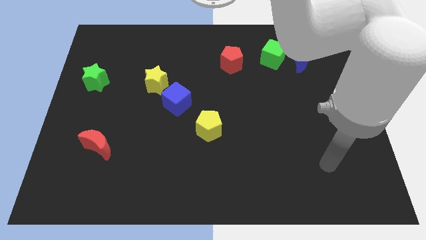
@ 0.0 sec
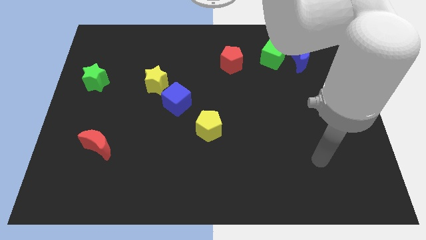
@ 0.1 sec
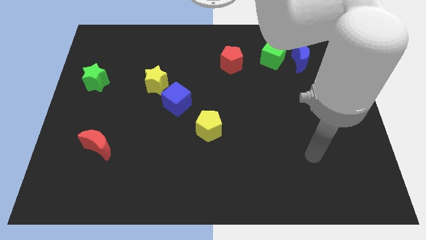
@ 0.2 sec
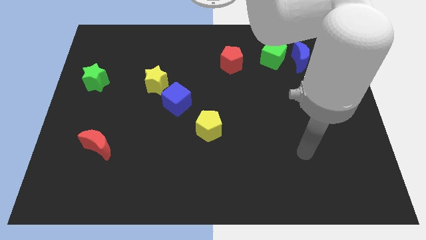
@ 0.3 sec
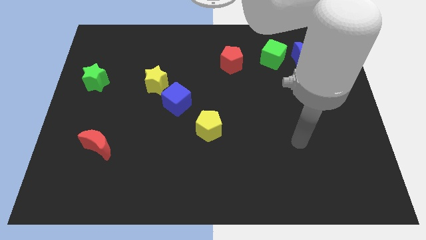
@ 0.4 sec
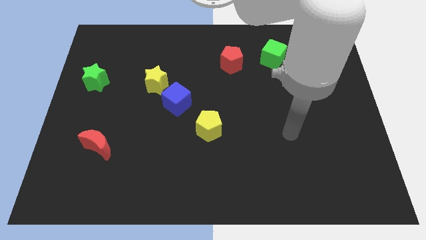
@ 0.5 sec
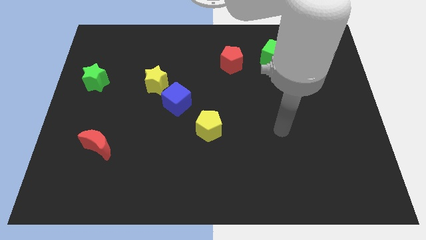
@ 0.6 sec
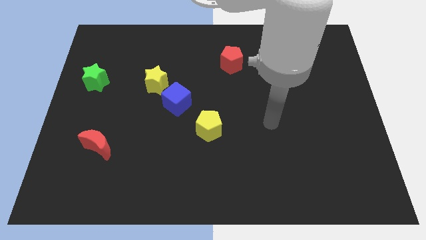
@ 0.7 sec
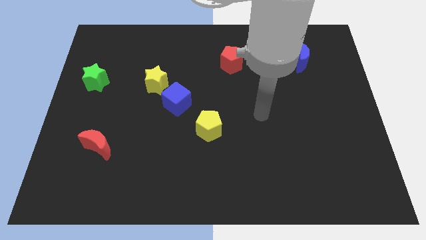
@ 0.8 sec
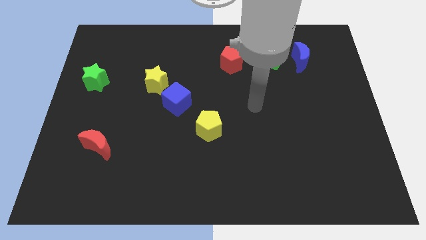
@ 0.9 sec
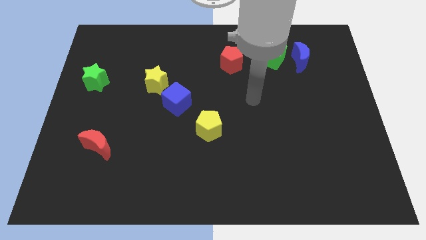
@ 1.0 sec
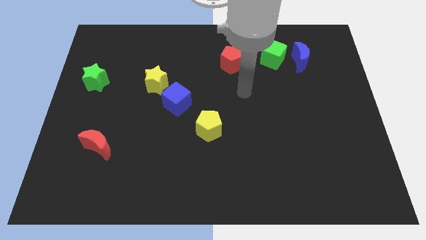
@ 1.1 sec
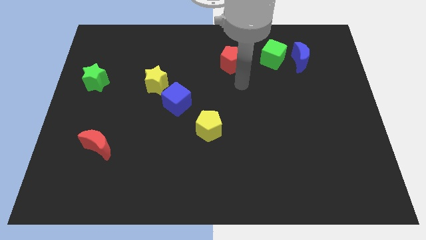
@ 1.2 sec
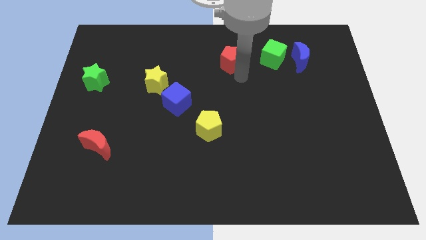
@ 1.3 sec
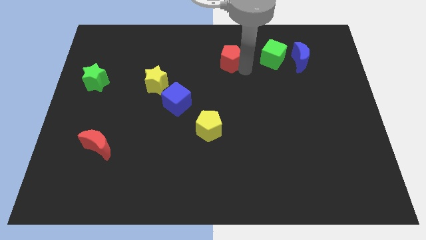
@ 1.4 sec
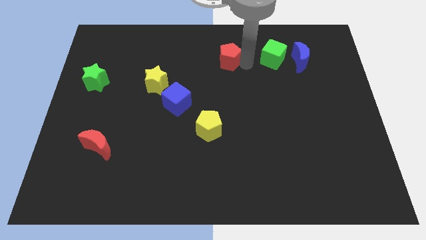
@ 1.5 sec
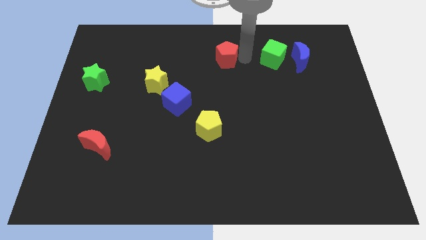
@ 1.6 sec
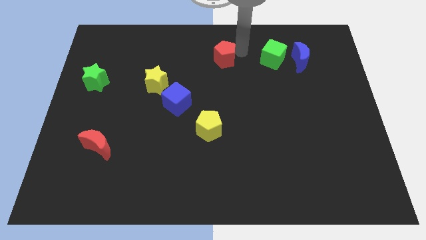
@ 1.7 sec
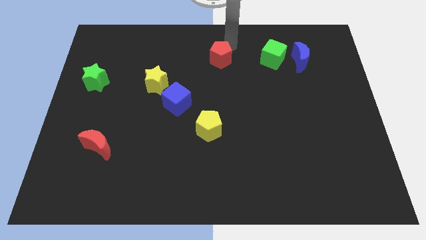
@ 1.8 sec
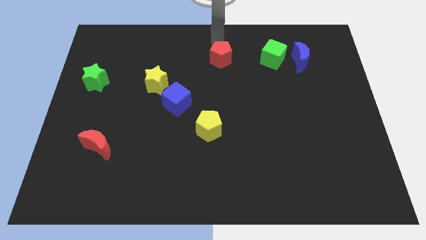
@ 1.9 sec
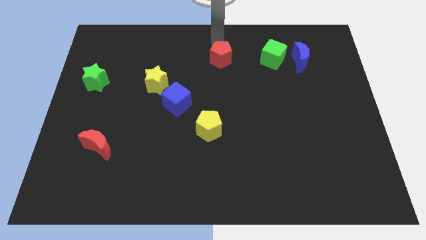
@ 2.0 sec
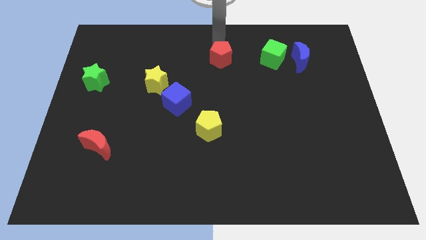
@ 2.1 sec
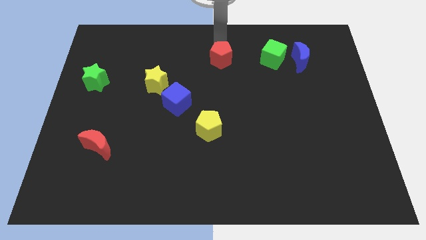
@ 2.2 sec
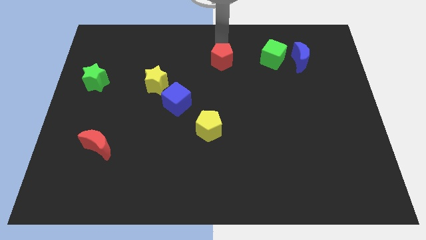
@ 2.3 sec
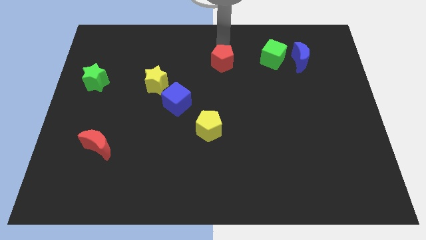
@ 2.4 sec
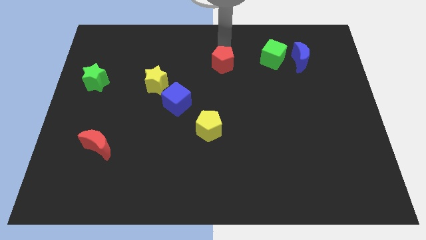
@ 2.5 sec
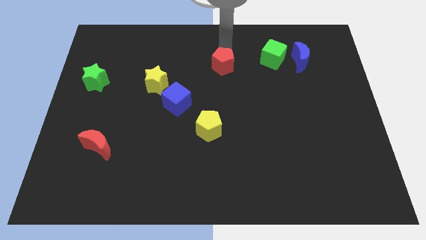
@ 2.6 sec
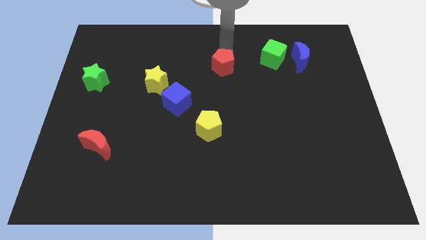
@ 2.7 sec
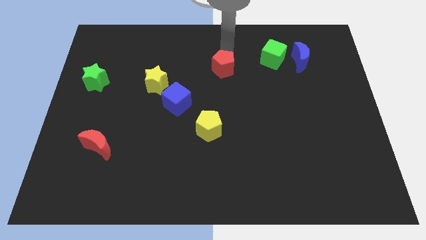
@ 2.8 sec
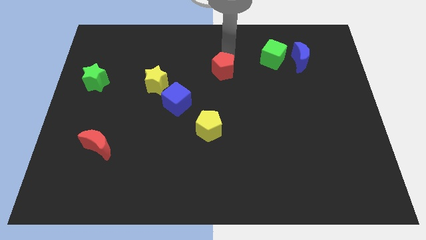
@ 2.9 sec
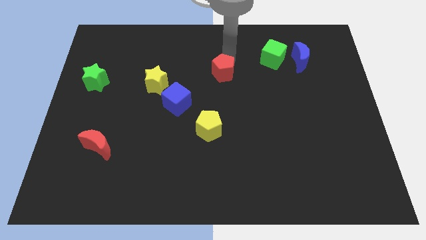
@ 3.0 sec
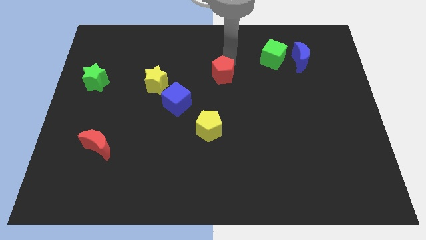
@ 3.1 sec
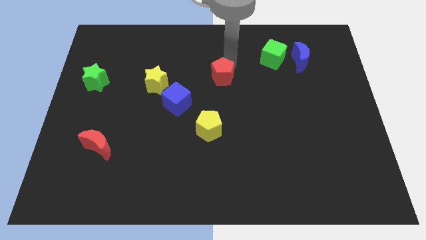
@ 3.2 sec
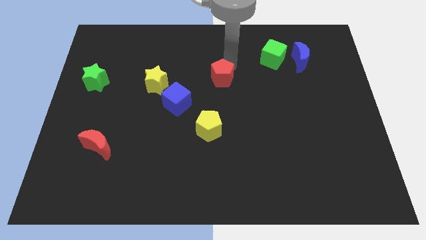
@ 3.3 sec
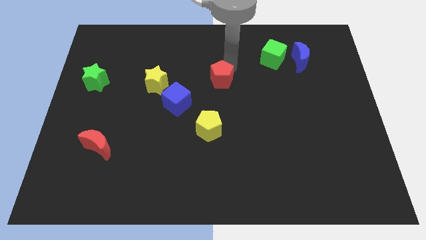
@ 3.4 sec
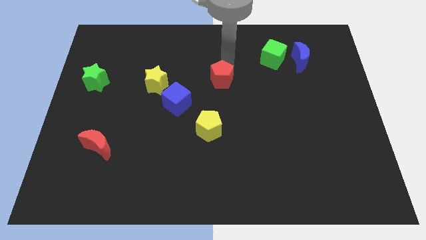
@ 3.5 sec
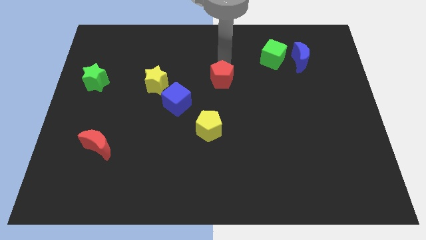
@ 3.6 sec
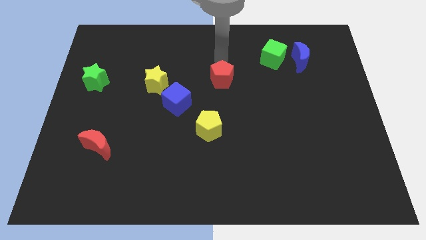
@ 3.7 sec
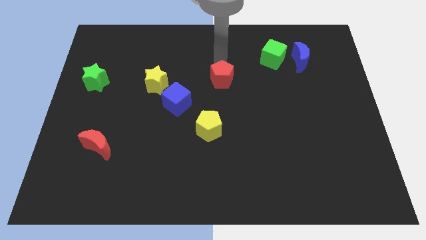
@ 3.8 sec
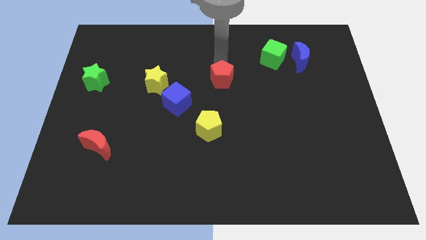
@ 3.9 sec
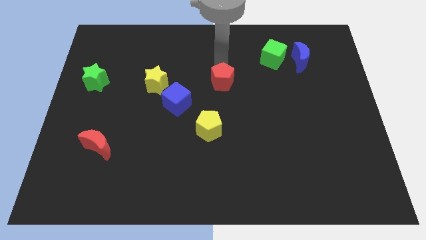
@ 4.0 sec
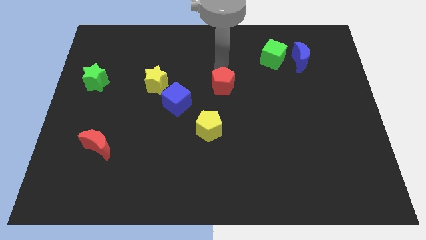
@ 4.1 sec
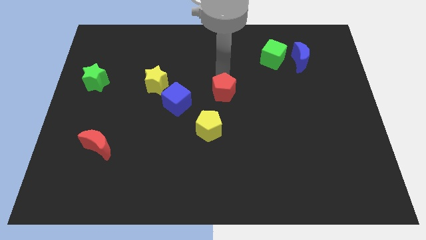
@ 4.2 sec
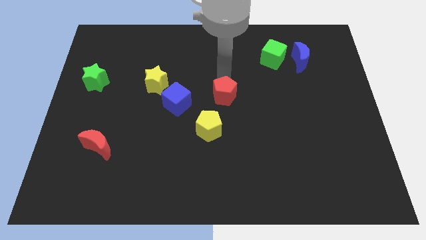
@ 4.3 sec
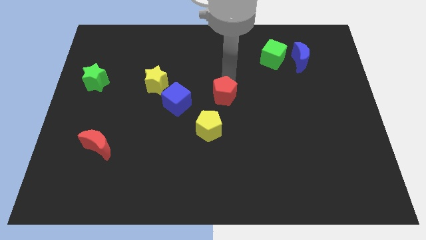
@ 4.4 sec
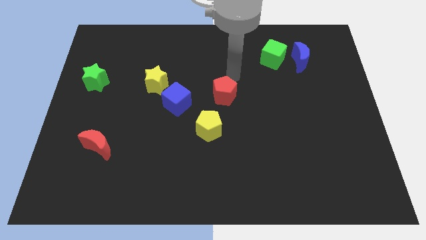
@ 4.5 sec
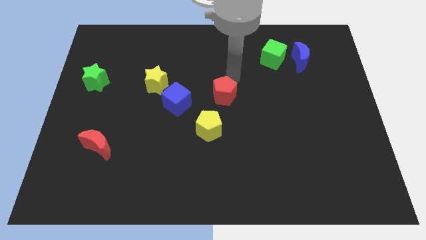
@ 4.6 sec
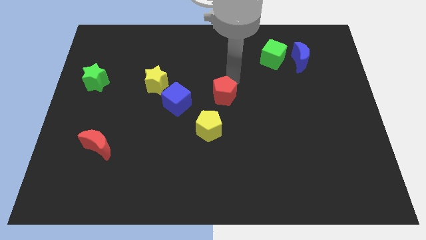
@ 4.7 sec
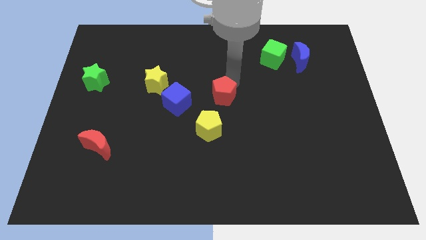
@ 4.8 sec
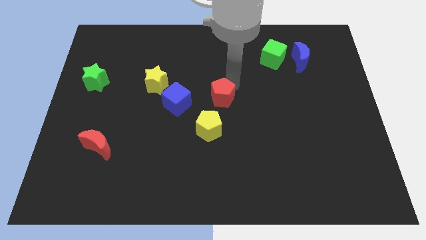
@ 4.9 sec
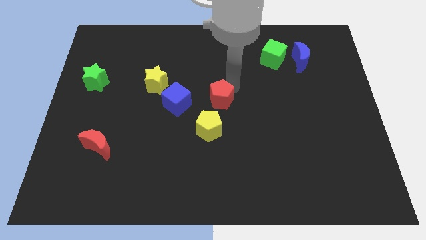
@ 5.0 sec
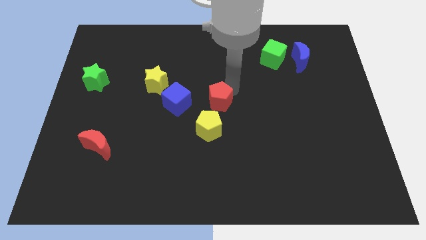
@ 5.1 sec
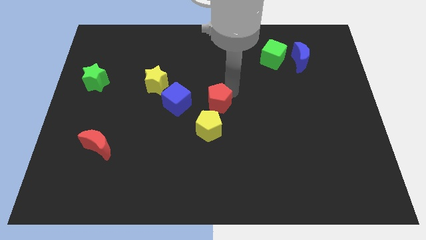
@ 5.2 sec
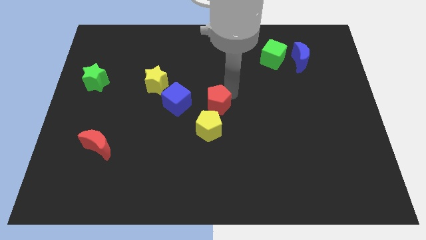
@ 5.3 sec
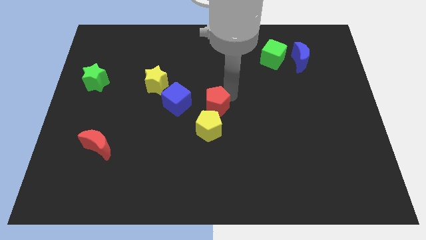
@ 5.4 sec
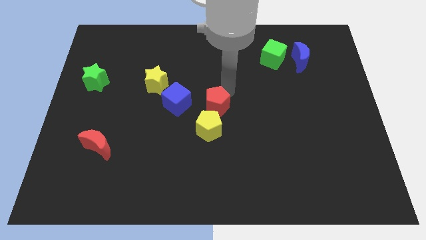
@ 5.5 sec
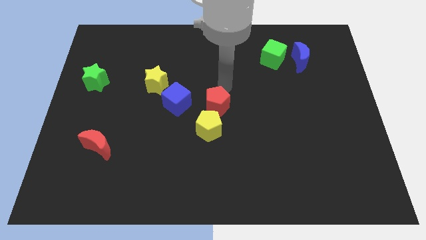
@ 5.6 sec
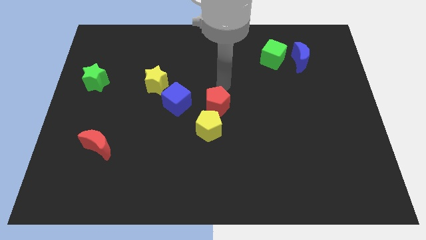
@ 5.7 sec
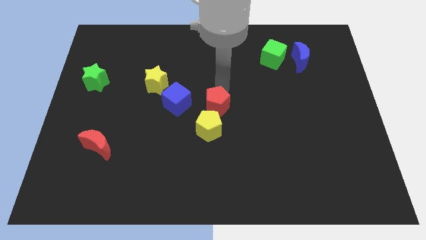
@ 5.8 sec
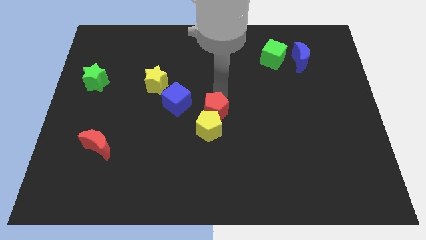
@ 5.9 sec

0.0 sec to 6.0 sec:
put the red pentagon close to the yellow pentagon
